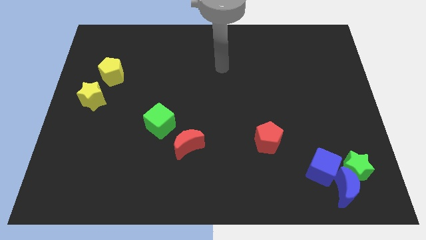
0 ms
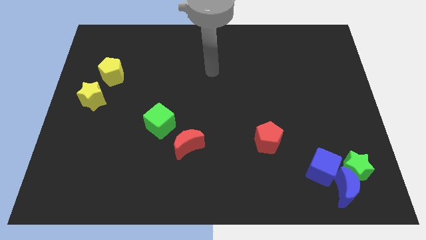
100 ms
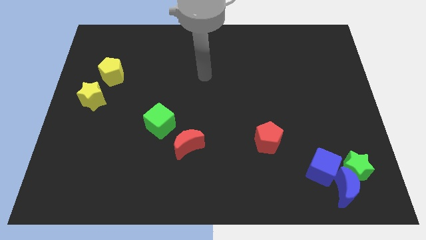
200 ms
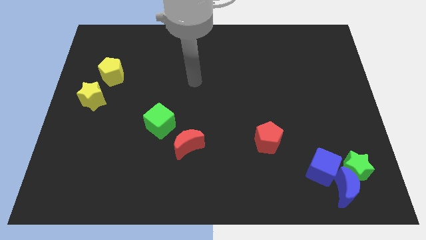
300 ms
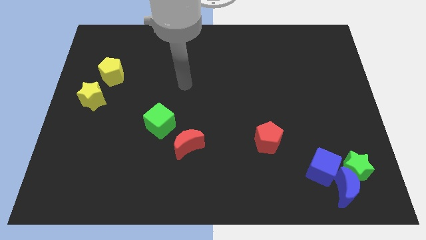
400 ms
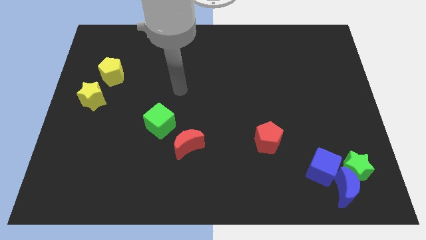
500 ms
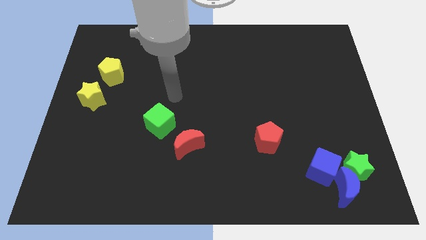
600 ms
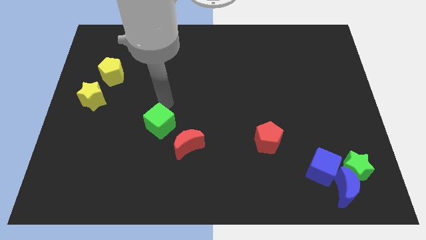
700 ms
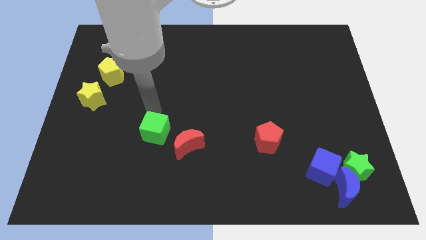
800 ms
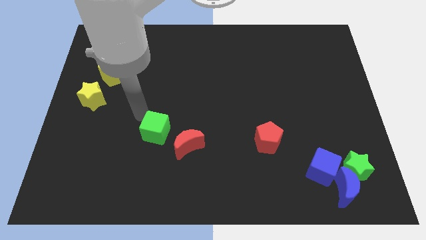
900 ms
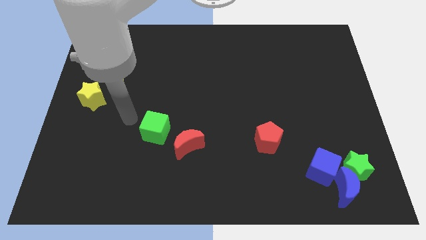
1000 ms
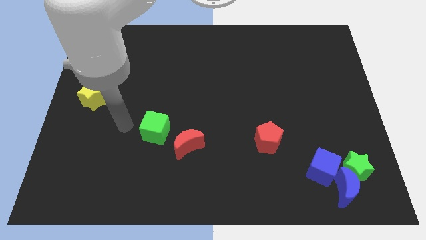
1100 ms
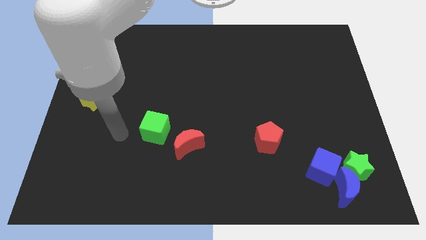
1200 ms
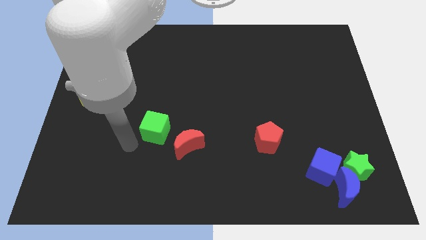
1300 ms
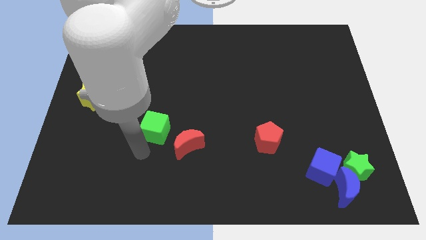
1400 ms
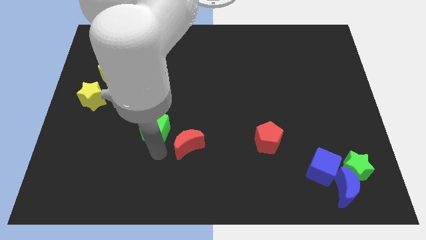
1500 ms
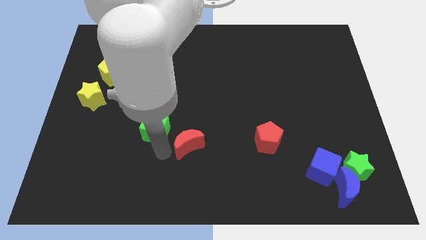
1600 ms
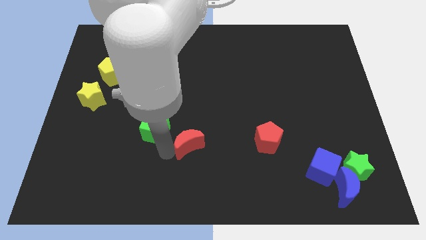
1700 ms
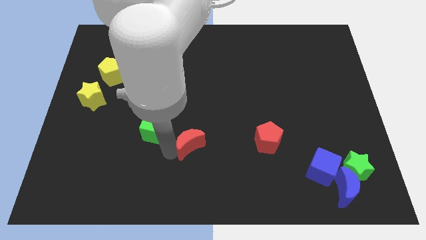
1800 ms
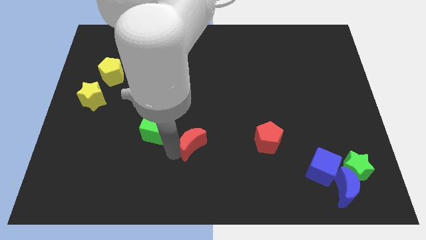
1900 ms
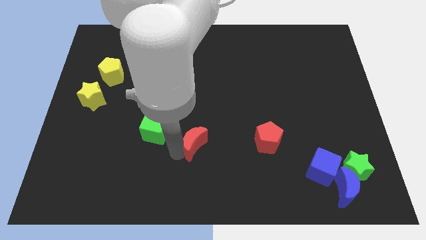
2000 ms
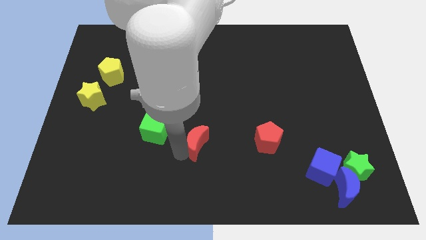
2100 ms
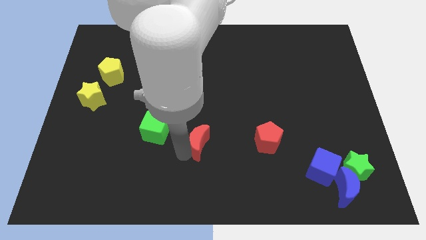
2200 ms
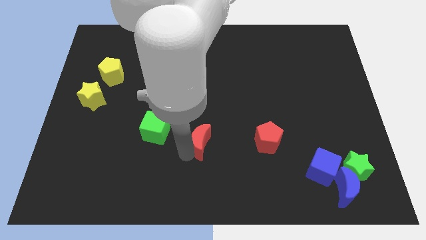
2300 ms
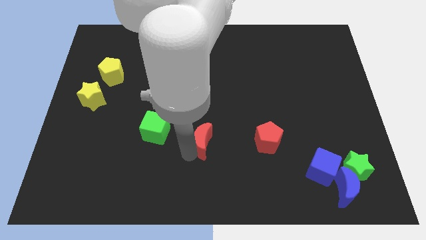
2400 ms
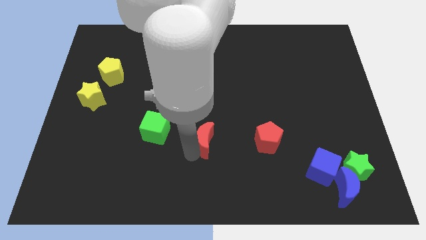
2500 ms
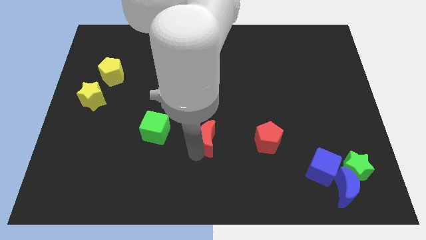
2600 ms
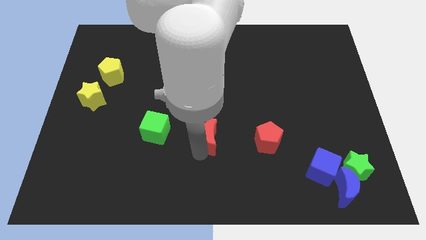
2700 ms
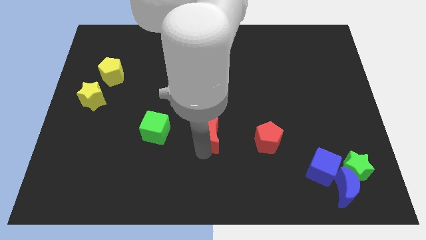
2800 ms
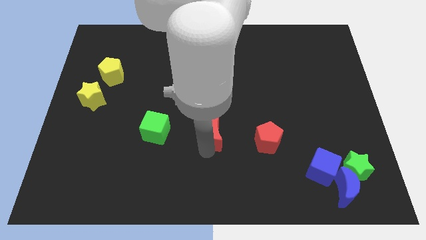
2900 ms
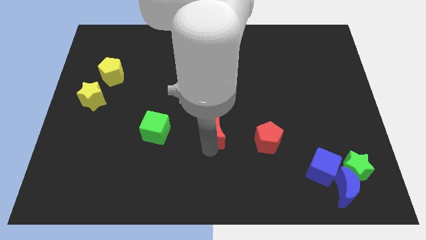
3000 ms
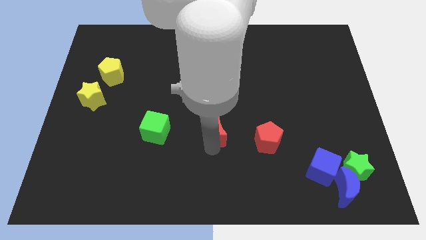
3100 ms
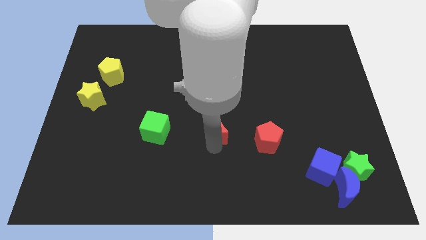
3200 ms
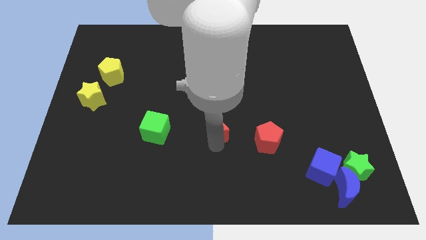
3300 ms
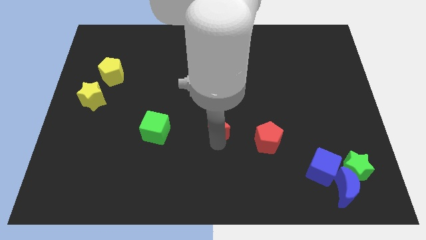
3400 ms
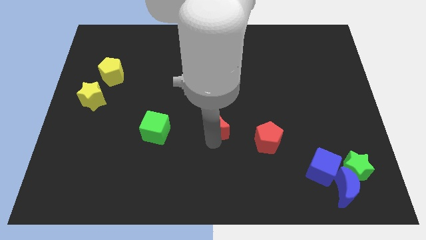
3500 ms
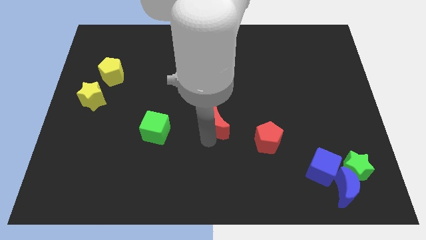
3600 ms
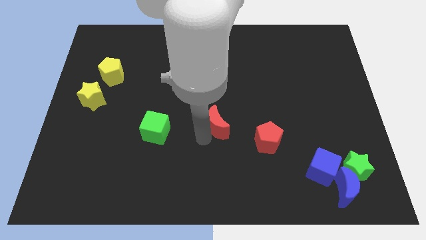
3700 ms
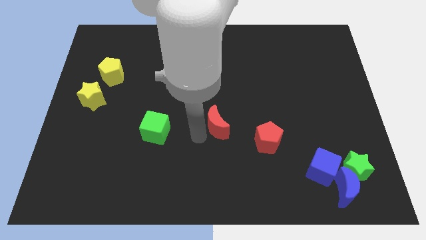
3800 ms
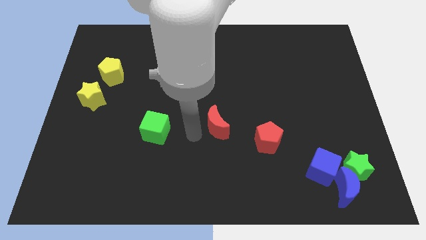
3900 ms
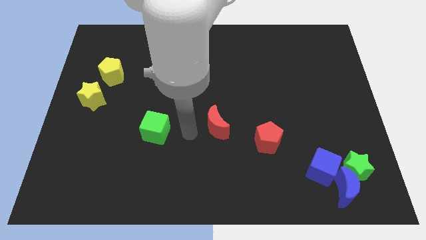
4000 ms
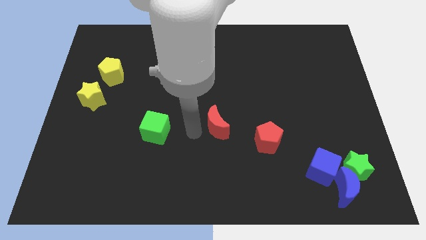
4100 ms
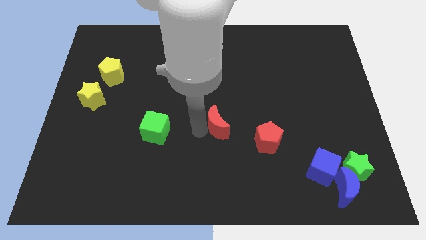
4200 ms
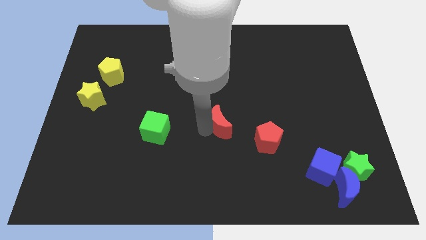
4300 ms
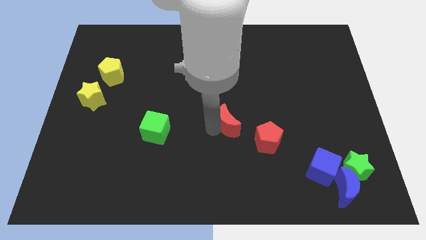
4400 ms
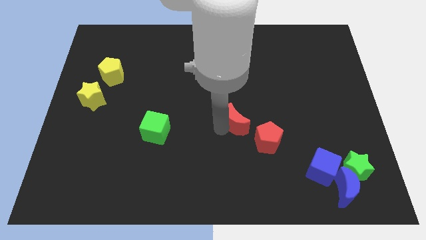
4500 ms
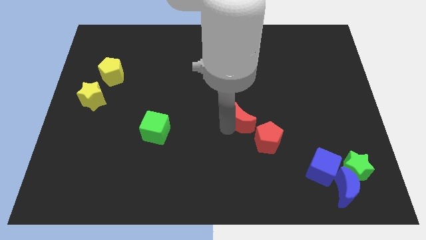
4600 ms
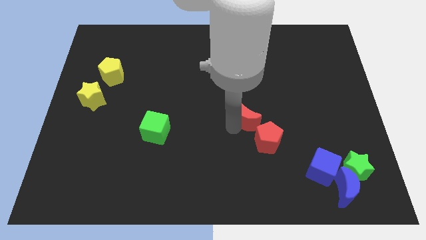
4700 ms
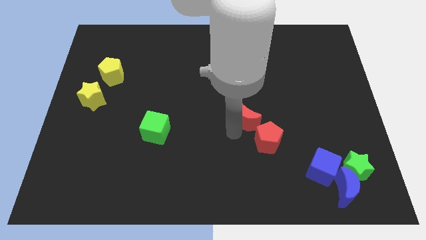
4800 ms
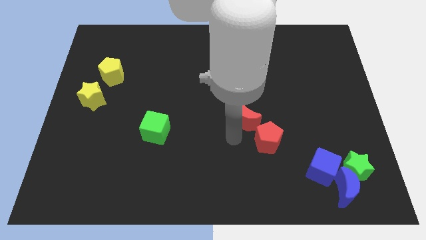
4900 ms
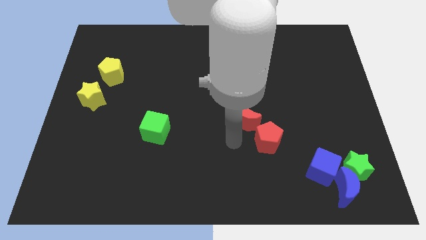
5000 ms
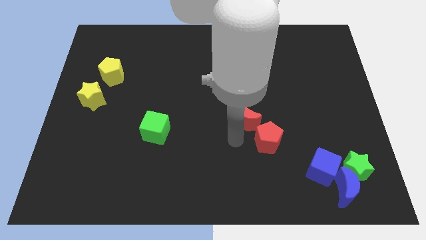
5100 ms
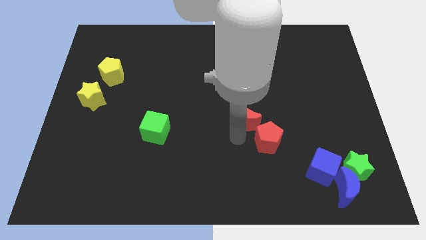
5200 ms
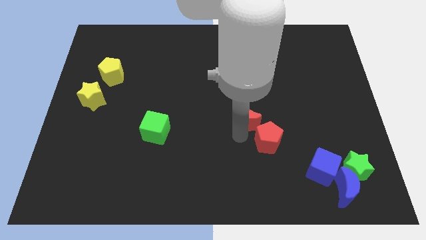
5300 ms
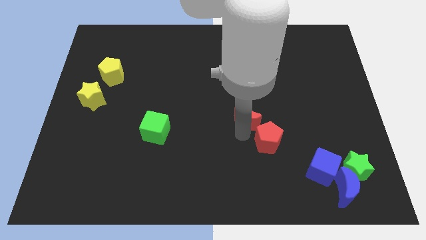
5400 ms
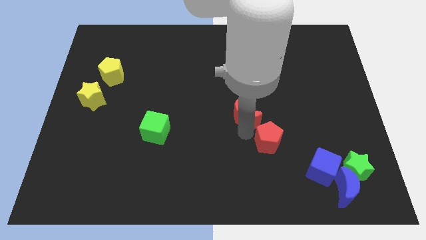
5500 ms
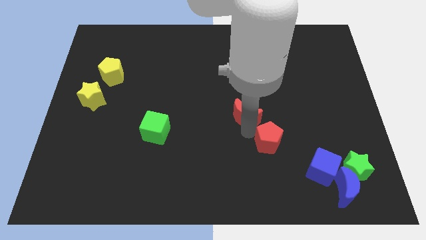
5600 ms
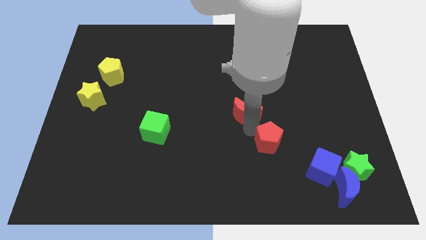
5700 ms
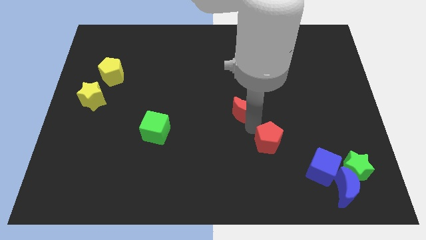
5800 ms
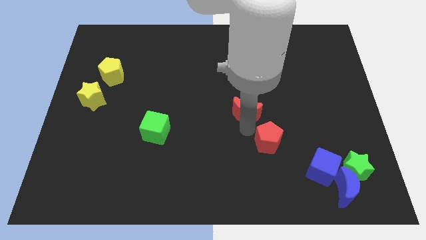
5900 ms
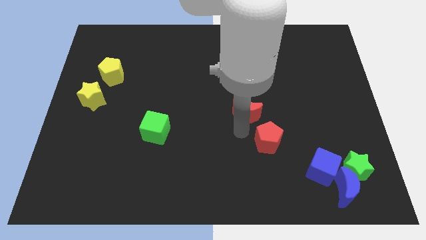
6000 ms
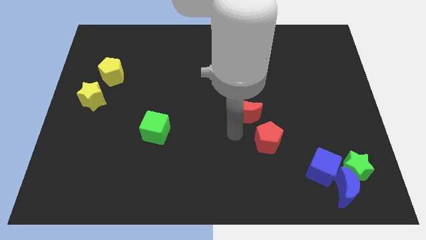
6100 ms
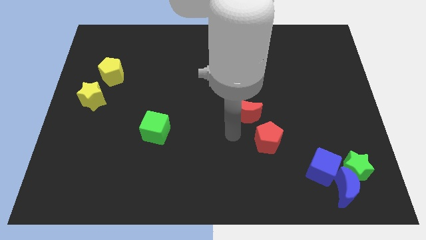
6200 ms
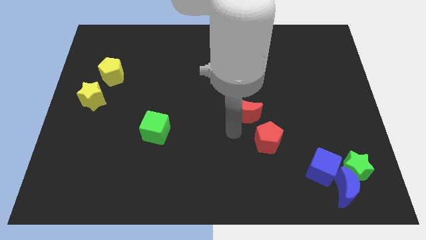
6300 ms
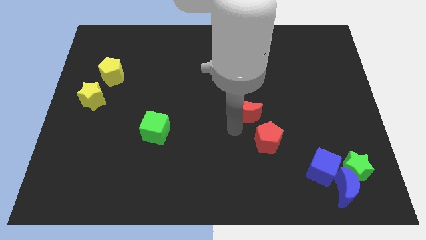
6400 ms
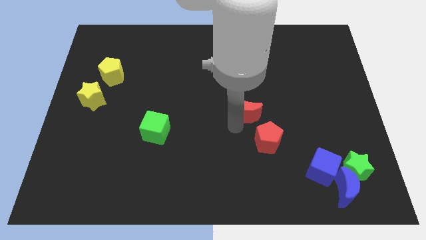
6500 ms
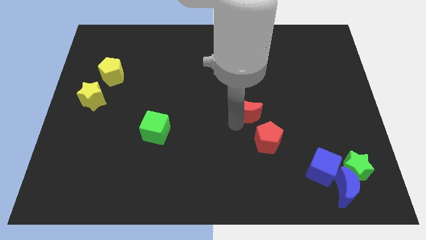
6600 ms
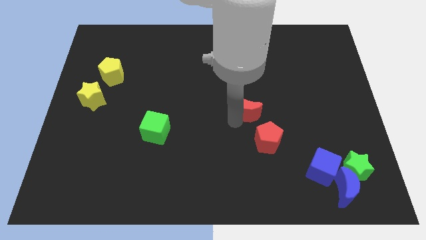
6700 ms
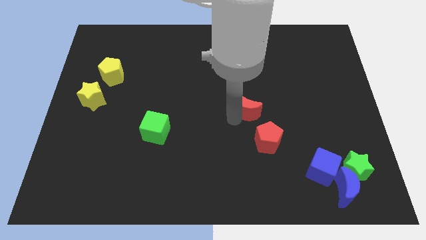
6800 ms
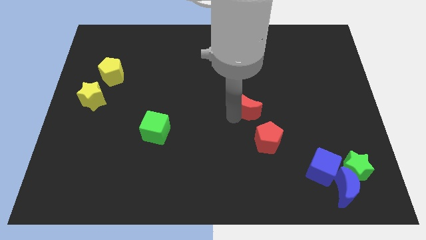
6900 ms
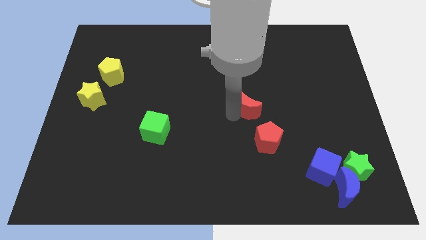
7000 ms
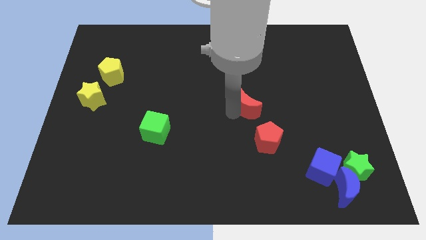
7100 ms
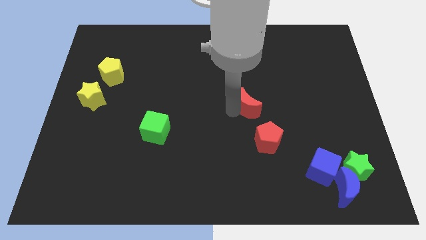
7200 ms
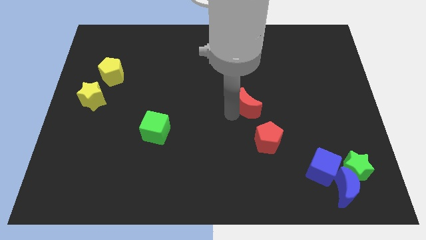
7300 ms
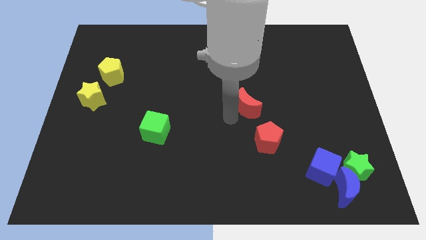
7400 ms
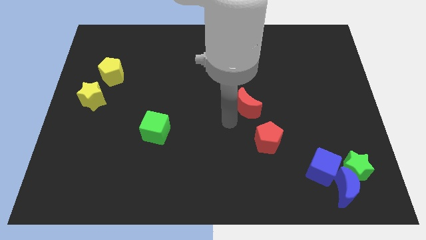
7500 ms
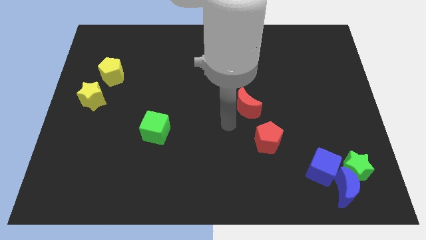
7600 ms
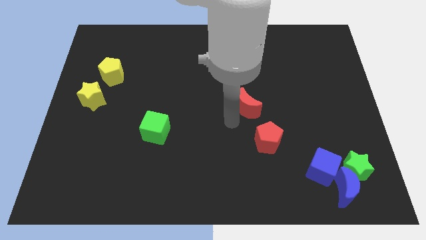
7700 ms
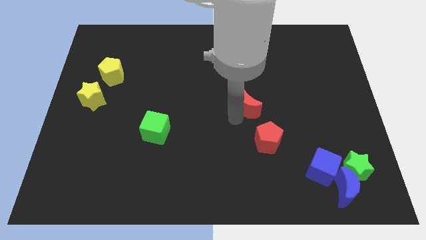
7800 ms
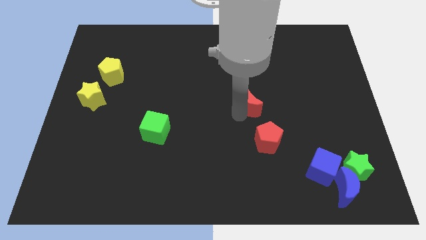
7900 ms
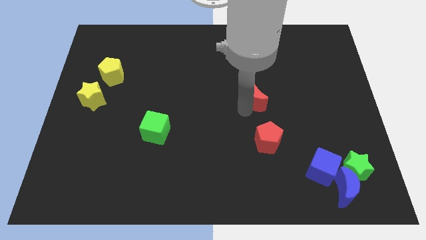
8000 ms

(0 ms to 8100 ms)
slide the red moon diagonally up and to the right

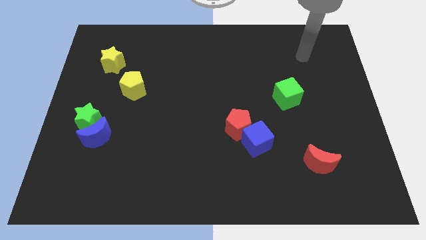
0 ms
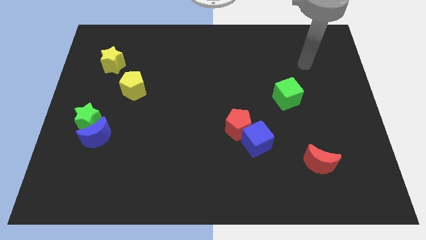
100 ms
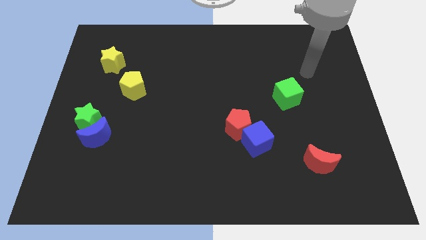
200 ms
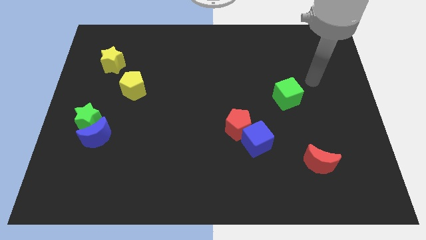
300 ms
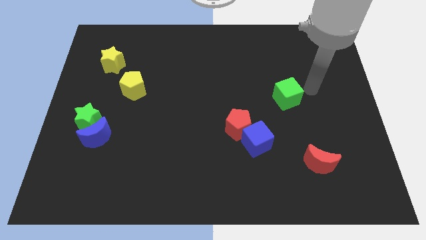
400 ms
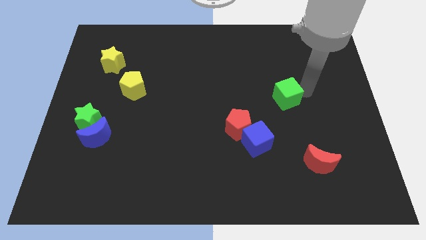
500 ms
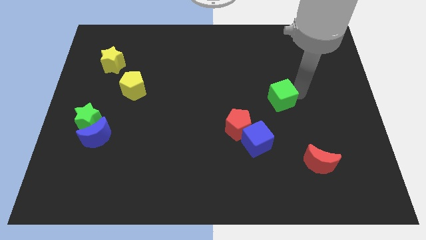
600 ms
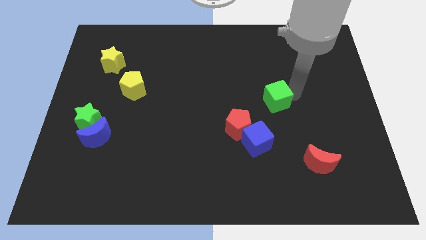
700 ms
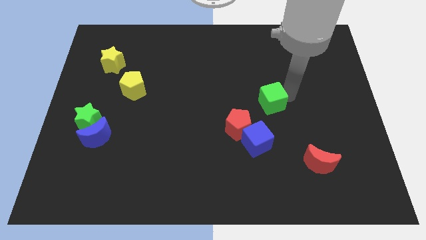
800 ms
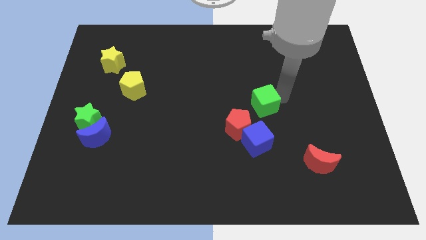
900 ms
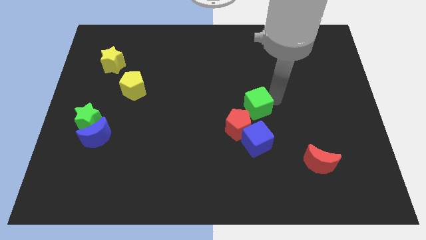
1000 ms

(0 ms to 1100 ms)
move the green cube downwards and left diagonally somewhat
